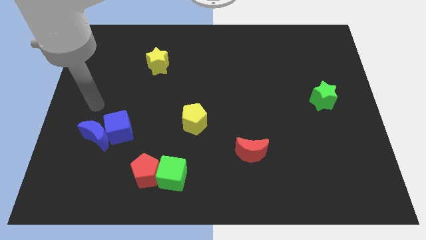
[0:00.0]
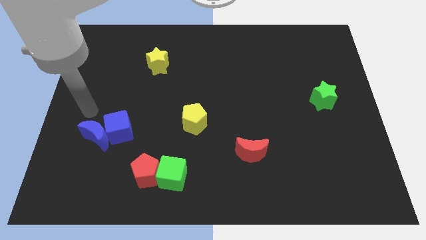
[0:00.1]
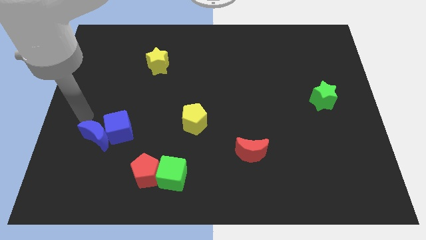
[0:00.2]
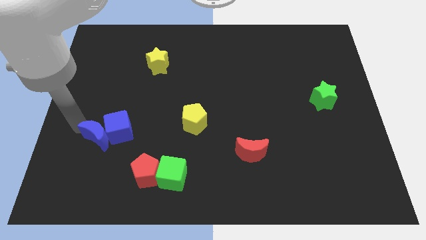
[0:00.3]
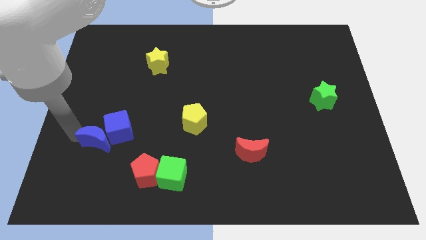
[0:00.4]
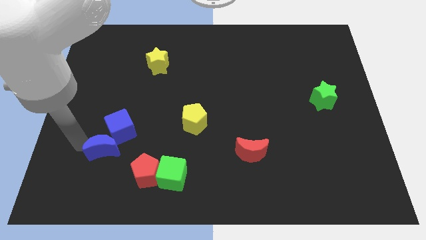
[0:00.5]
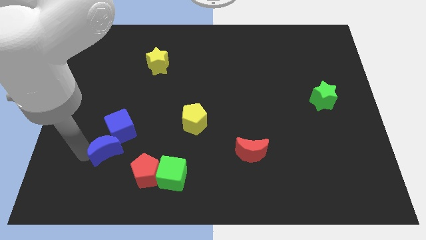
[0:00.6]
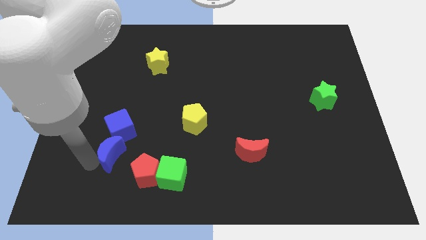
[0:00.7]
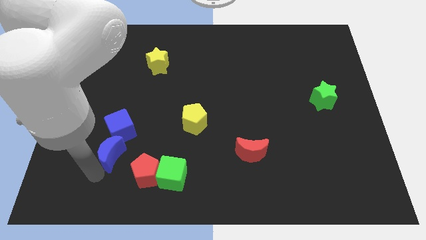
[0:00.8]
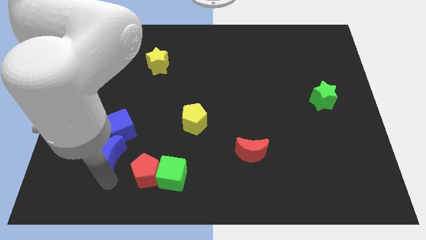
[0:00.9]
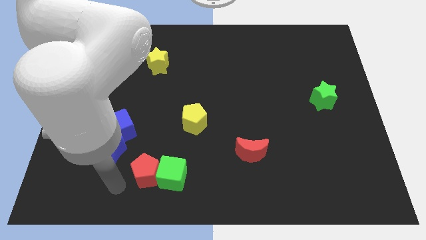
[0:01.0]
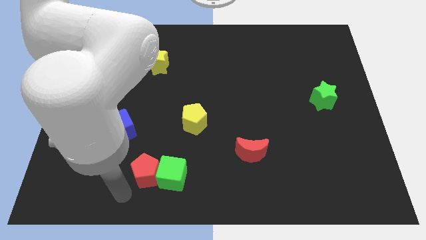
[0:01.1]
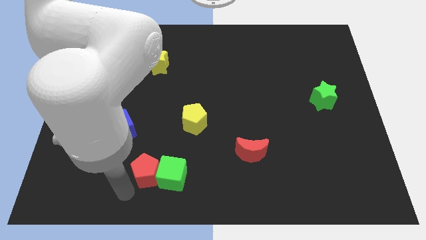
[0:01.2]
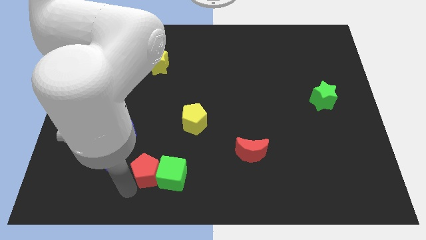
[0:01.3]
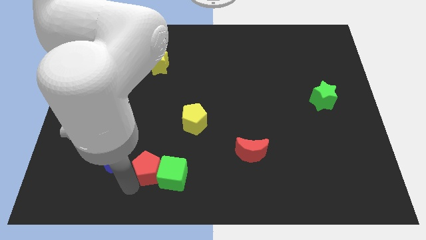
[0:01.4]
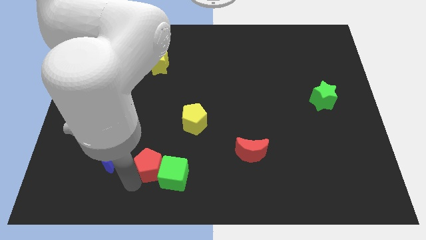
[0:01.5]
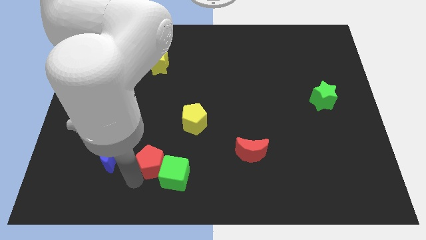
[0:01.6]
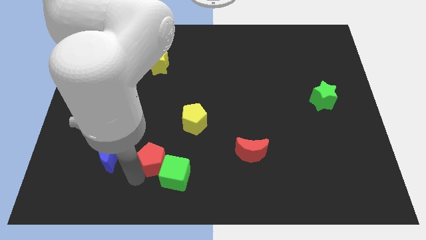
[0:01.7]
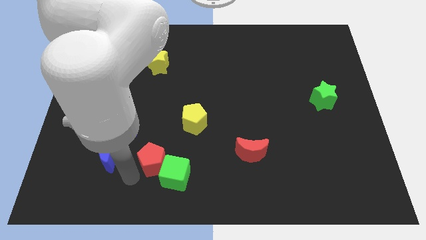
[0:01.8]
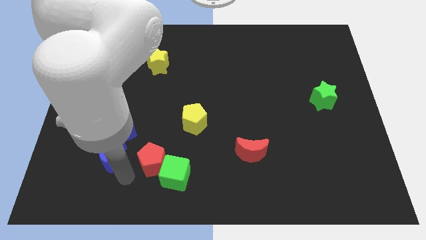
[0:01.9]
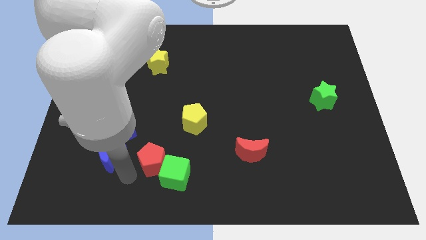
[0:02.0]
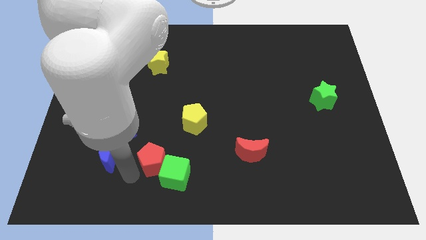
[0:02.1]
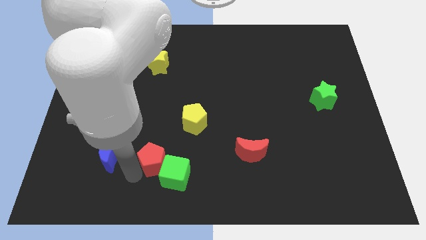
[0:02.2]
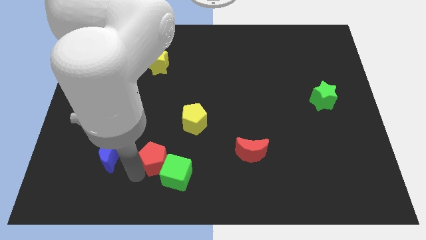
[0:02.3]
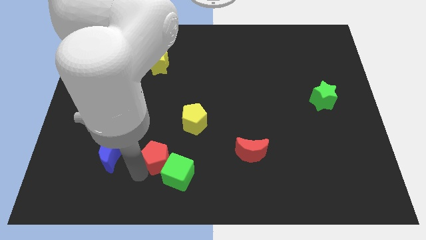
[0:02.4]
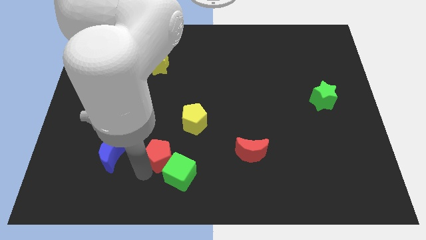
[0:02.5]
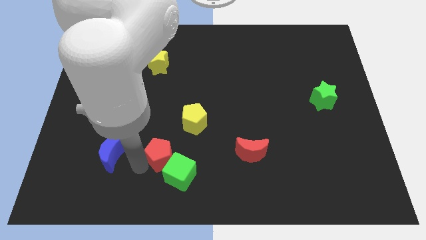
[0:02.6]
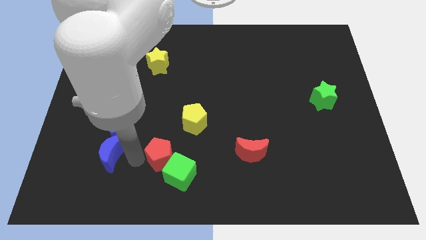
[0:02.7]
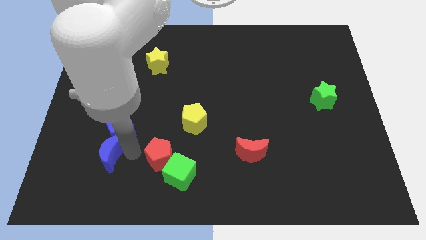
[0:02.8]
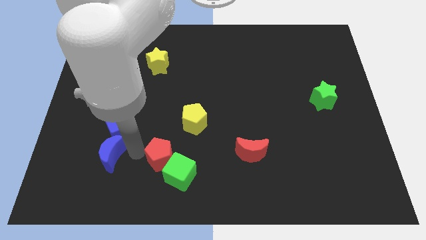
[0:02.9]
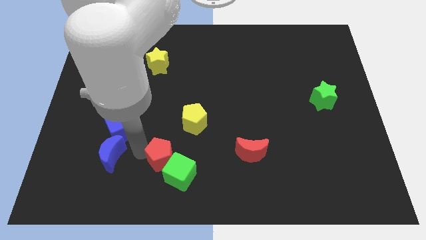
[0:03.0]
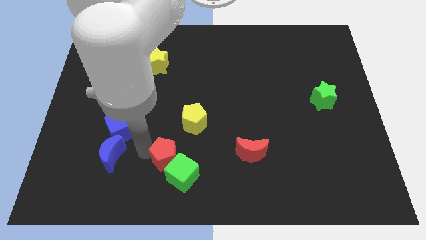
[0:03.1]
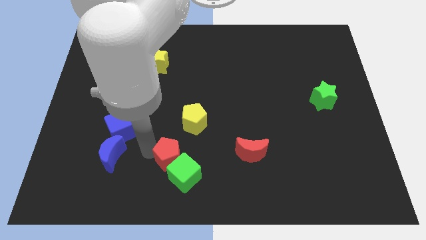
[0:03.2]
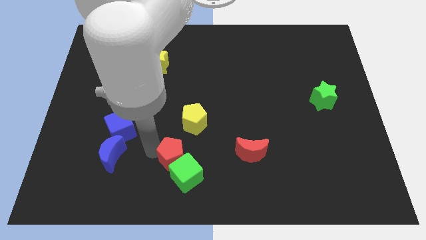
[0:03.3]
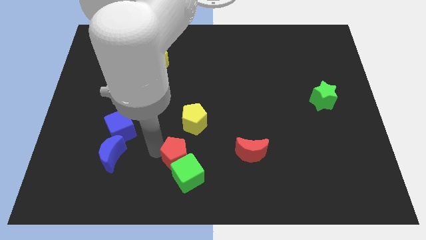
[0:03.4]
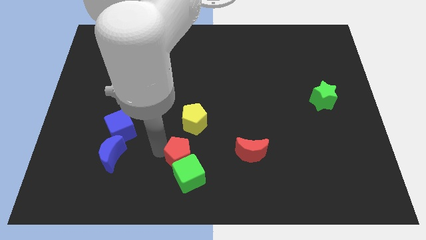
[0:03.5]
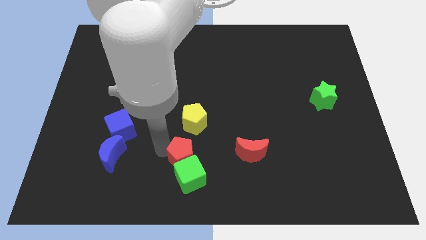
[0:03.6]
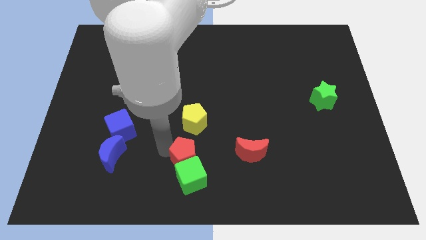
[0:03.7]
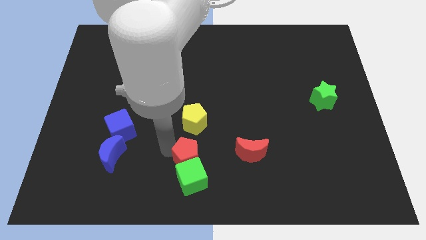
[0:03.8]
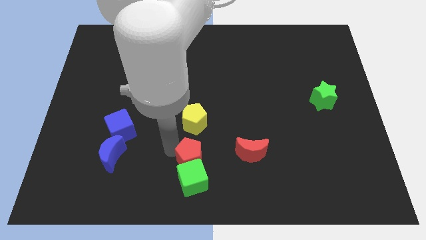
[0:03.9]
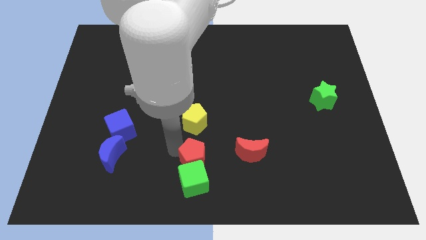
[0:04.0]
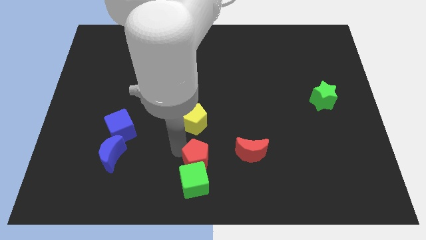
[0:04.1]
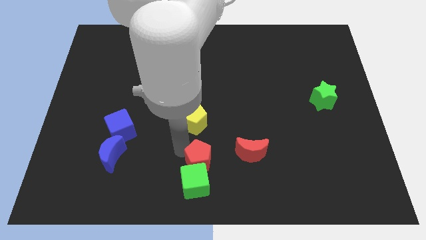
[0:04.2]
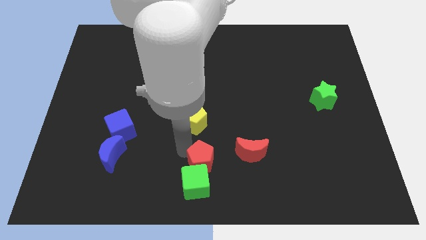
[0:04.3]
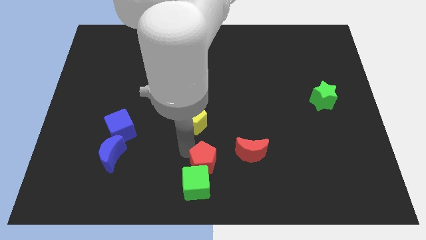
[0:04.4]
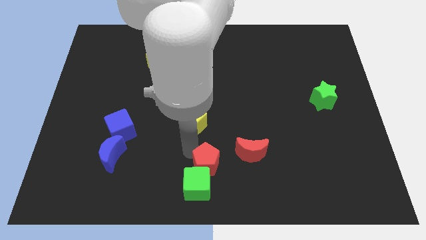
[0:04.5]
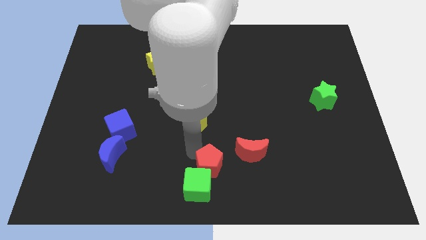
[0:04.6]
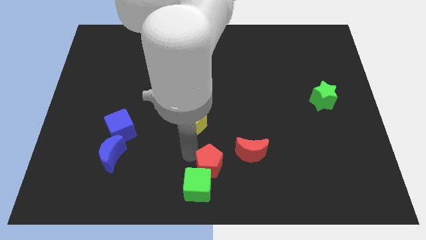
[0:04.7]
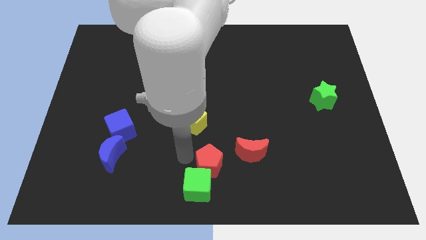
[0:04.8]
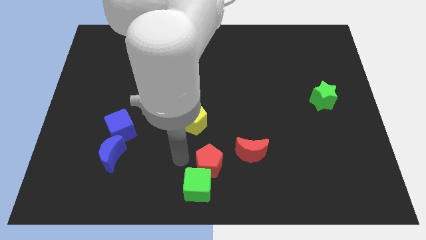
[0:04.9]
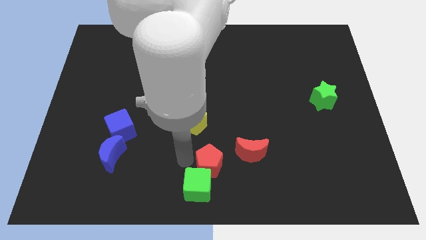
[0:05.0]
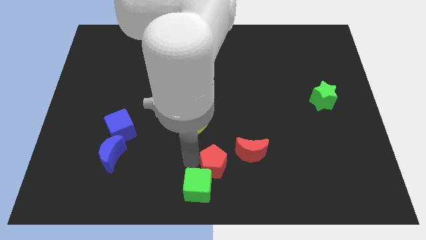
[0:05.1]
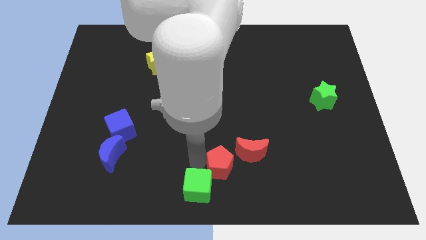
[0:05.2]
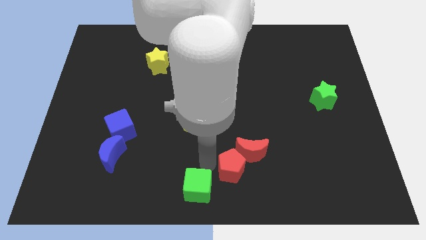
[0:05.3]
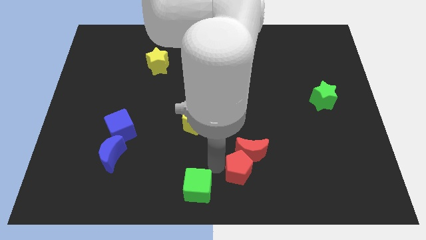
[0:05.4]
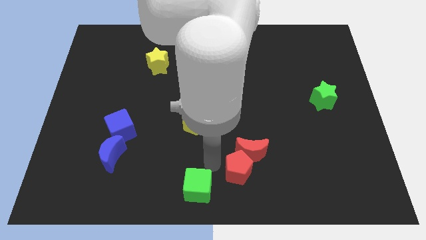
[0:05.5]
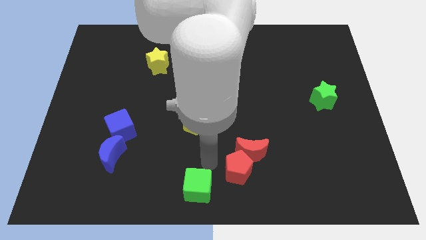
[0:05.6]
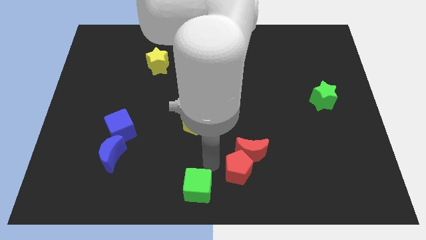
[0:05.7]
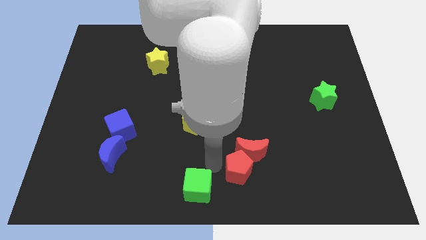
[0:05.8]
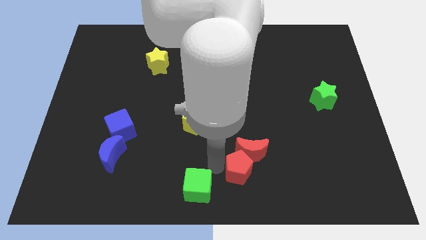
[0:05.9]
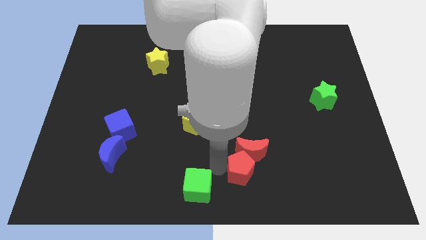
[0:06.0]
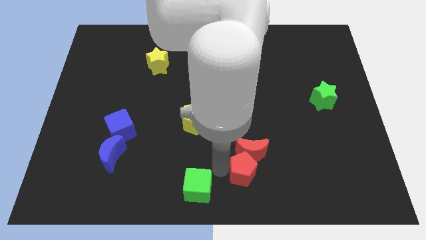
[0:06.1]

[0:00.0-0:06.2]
push the red pentagon to the right

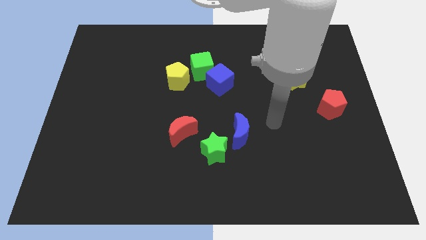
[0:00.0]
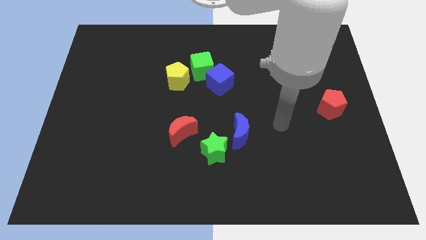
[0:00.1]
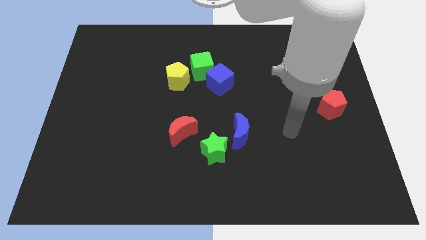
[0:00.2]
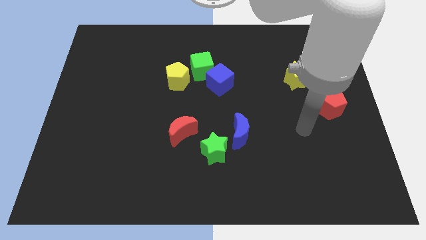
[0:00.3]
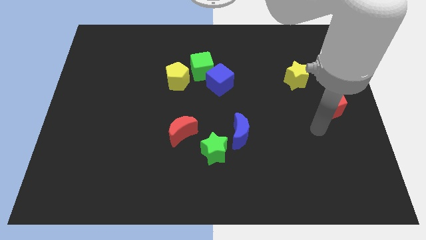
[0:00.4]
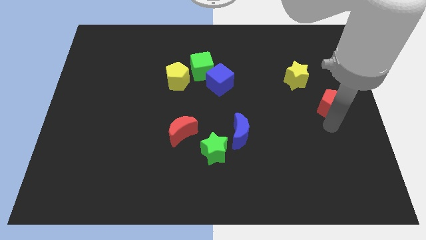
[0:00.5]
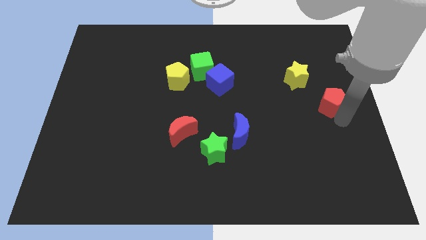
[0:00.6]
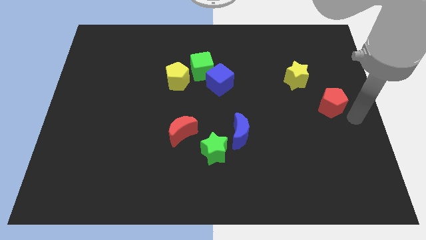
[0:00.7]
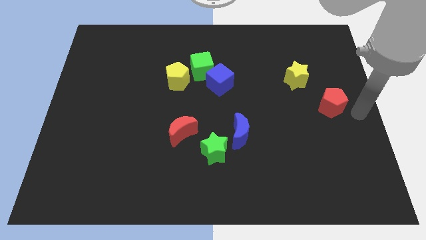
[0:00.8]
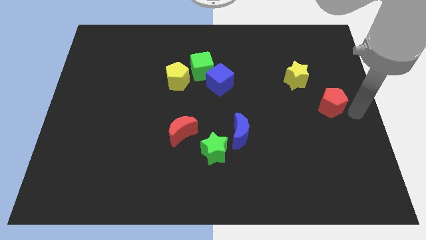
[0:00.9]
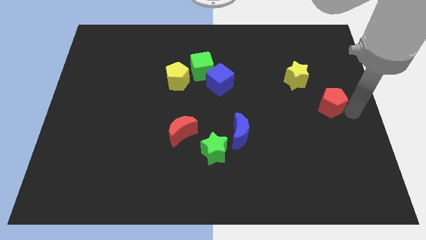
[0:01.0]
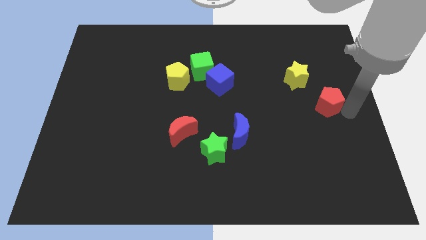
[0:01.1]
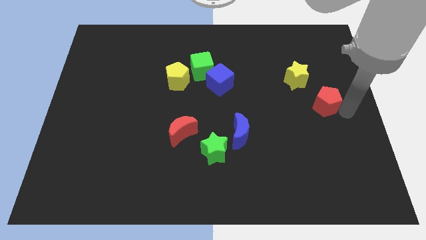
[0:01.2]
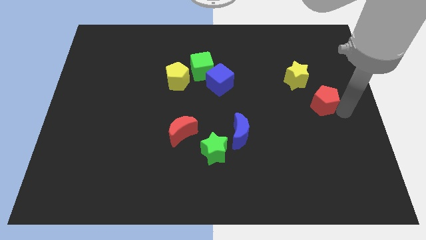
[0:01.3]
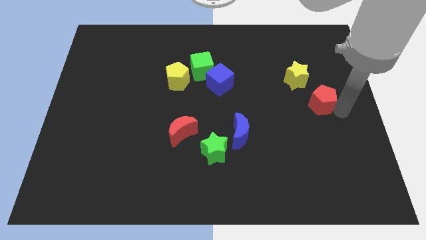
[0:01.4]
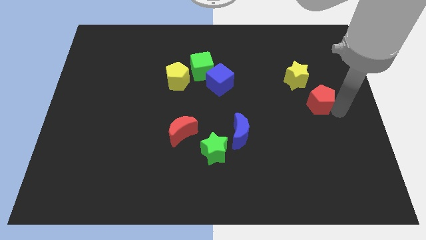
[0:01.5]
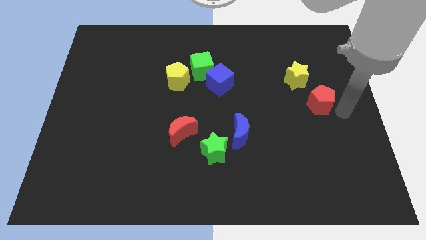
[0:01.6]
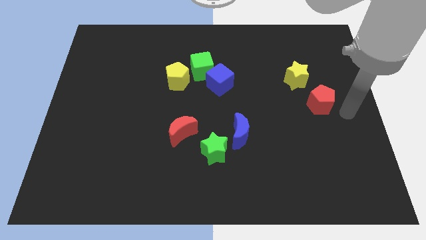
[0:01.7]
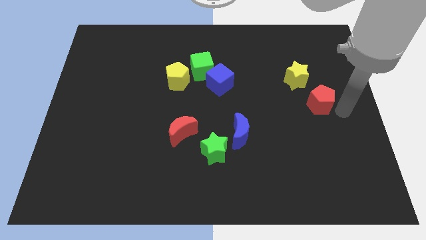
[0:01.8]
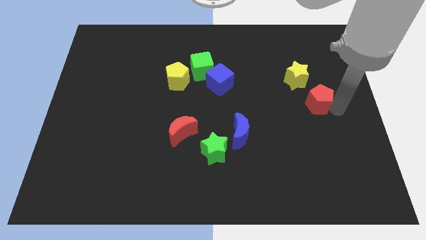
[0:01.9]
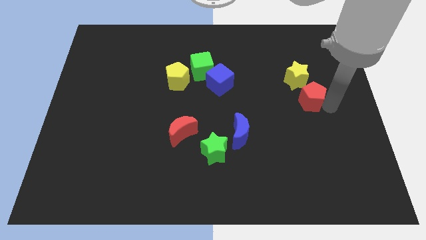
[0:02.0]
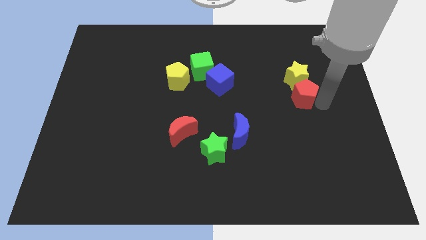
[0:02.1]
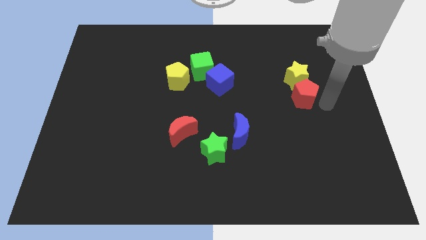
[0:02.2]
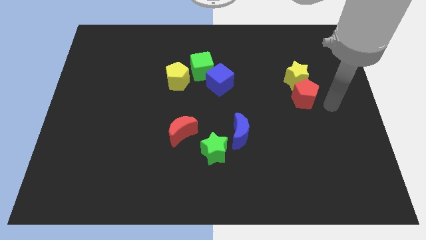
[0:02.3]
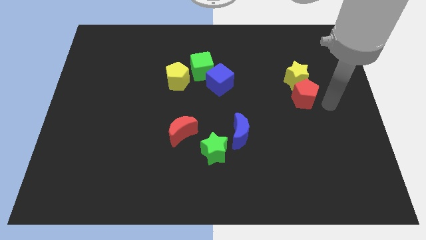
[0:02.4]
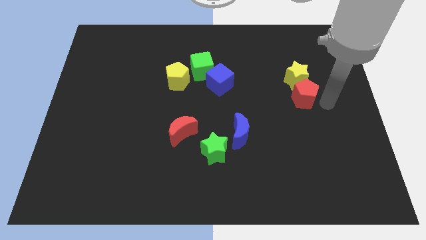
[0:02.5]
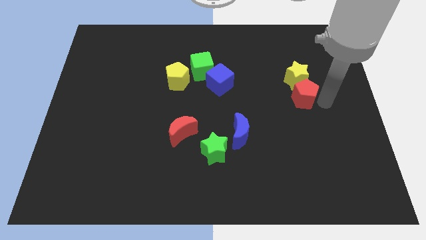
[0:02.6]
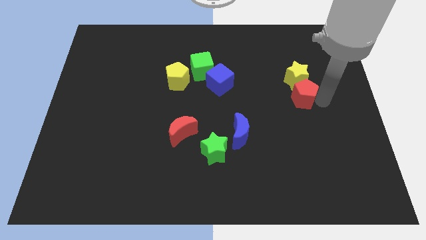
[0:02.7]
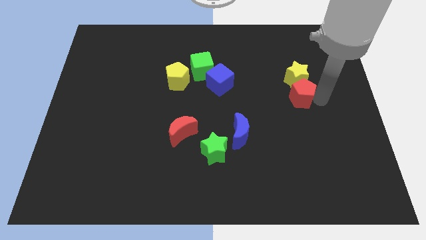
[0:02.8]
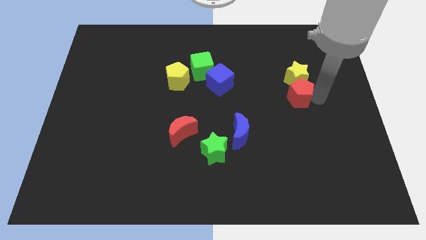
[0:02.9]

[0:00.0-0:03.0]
slide the red pentagon upwards and left somewhat
